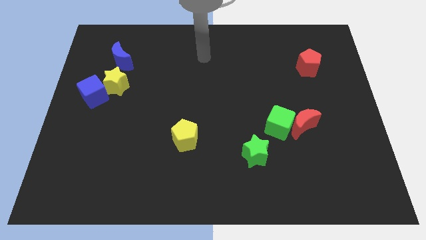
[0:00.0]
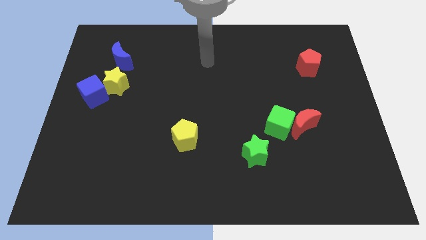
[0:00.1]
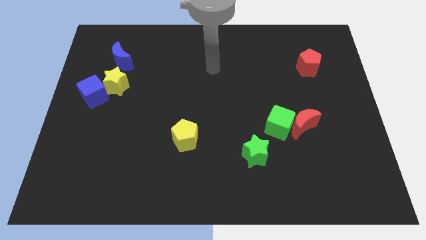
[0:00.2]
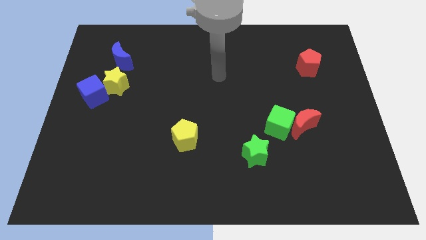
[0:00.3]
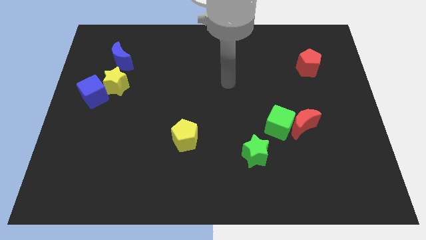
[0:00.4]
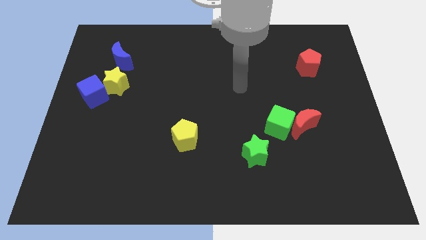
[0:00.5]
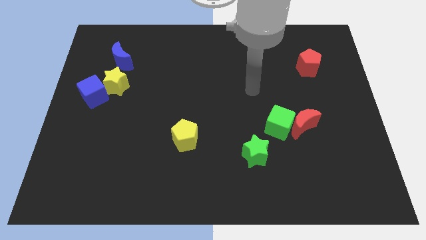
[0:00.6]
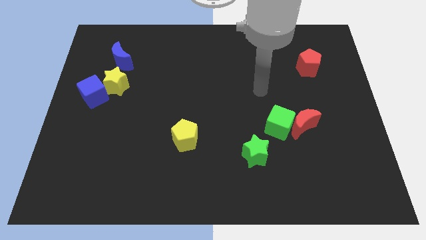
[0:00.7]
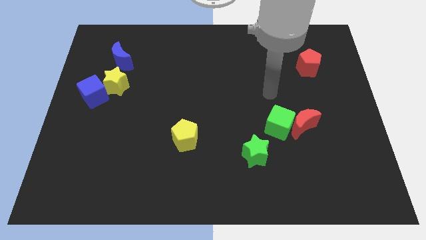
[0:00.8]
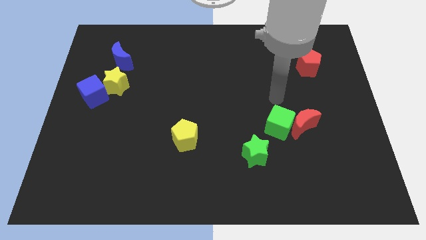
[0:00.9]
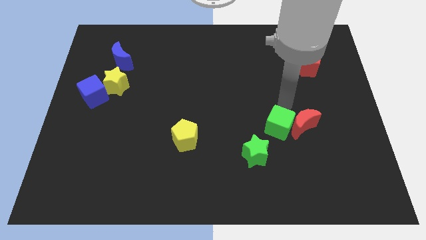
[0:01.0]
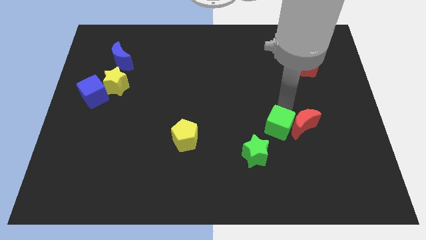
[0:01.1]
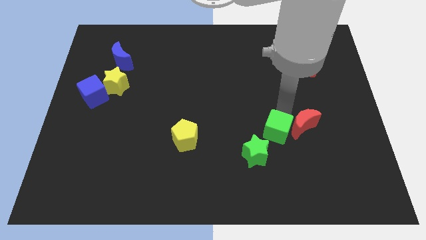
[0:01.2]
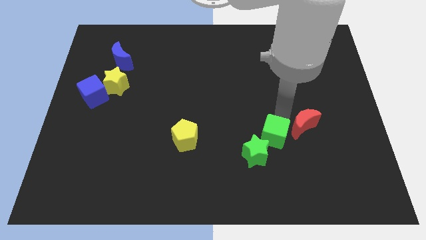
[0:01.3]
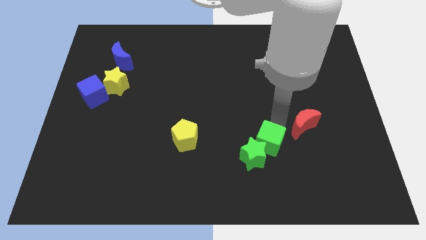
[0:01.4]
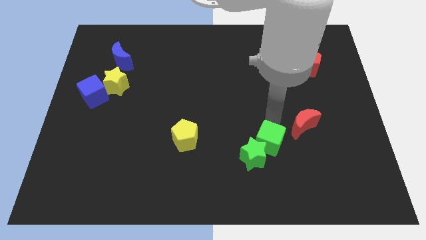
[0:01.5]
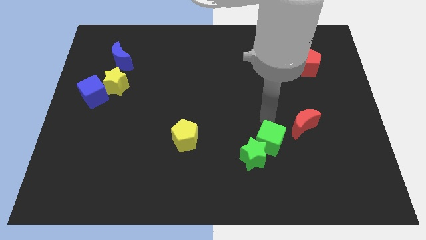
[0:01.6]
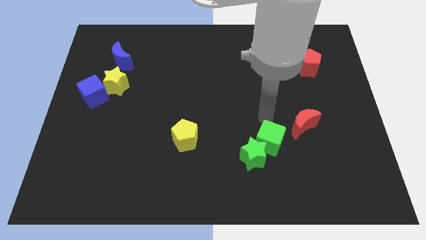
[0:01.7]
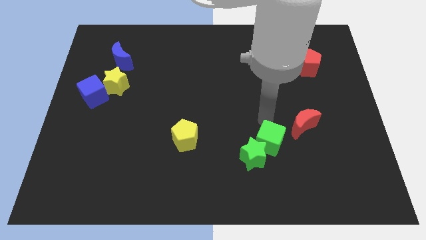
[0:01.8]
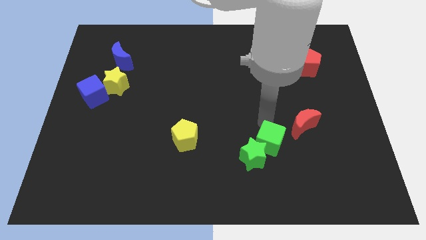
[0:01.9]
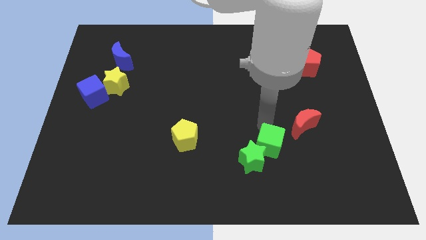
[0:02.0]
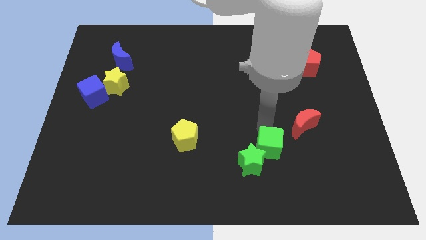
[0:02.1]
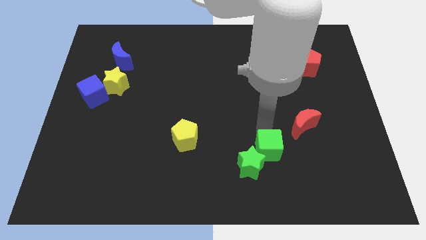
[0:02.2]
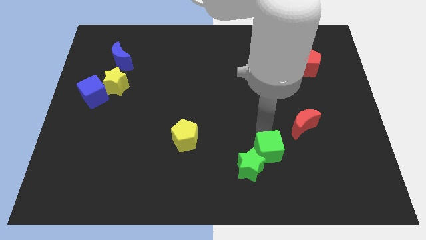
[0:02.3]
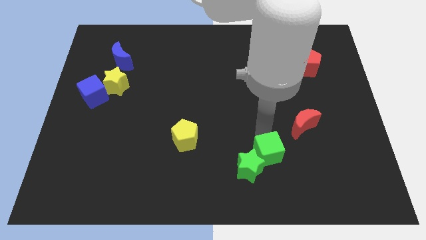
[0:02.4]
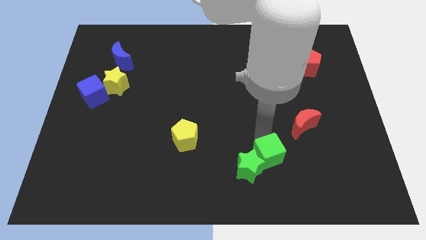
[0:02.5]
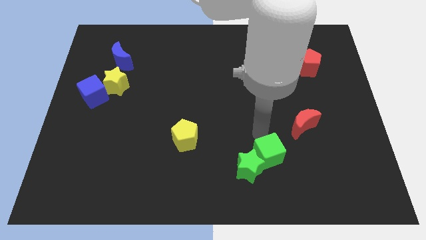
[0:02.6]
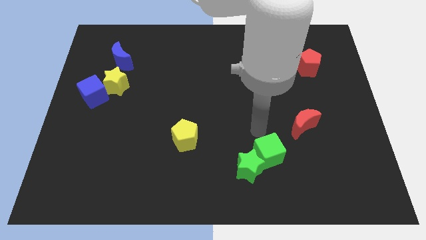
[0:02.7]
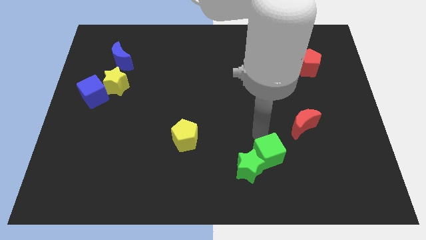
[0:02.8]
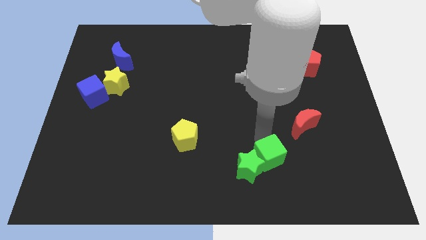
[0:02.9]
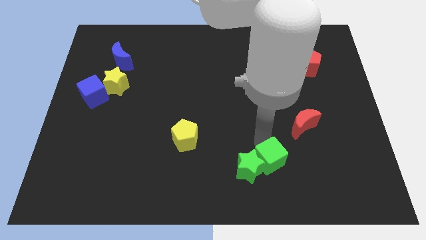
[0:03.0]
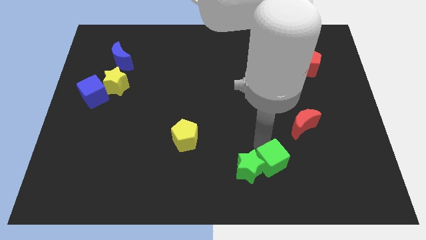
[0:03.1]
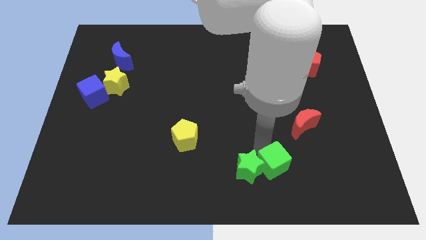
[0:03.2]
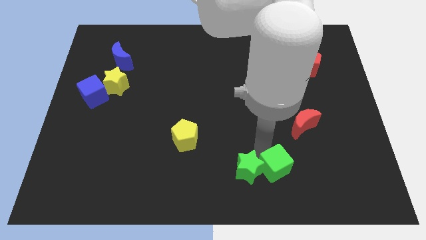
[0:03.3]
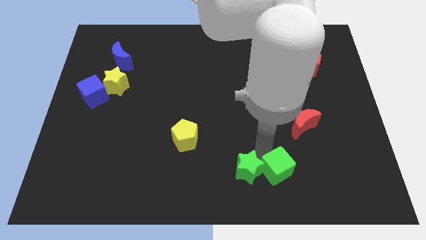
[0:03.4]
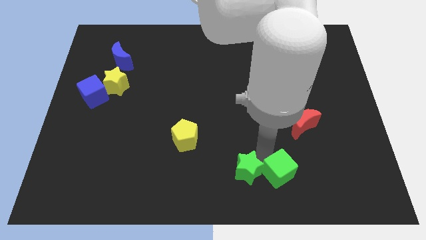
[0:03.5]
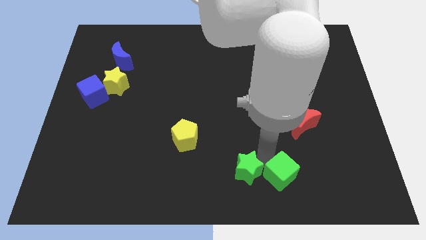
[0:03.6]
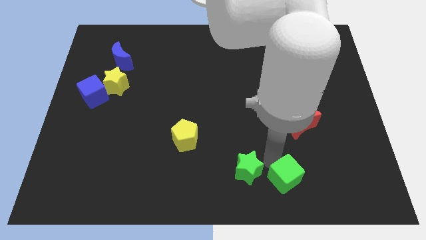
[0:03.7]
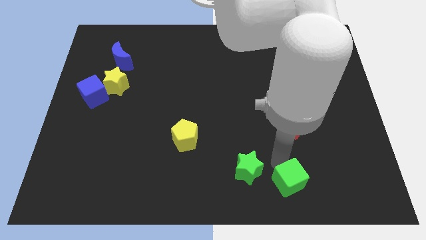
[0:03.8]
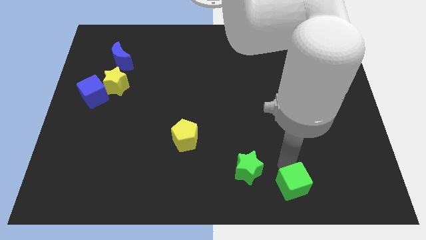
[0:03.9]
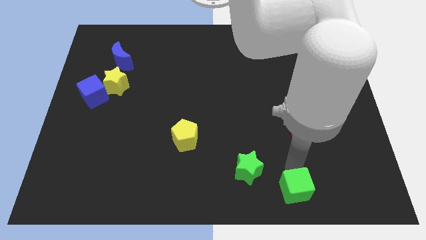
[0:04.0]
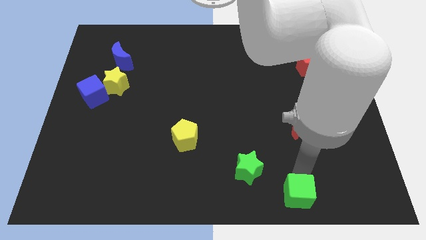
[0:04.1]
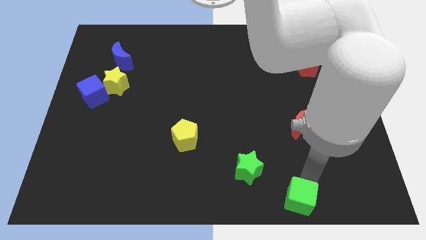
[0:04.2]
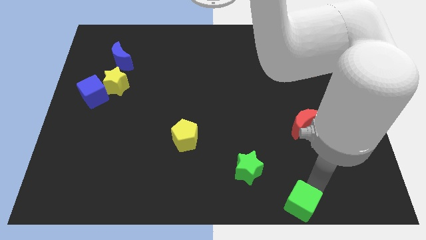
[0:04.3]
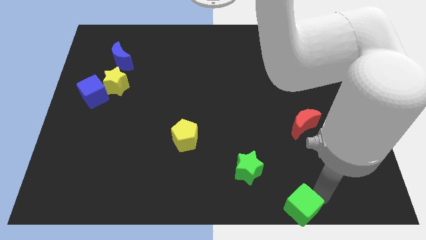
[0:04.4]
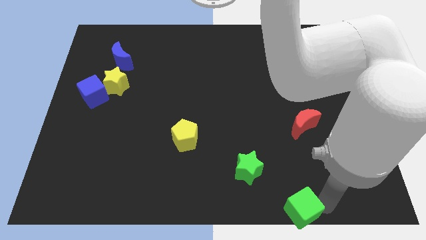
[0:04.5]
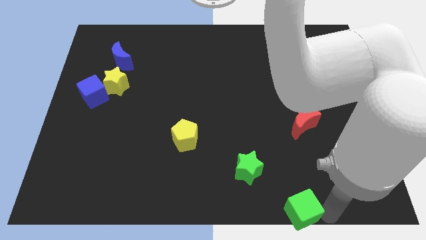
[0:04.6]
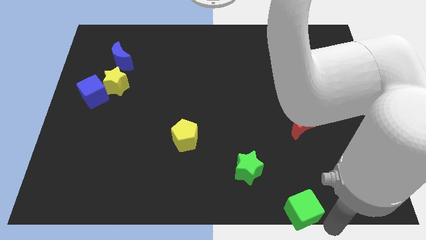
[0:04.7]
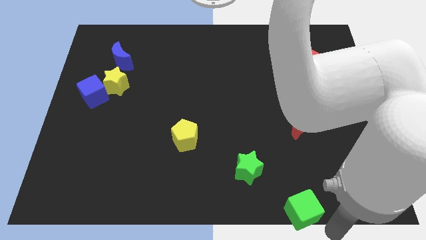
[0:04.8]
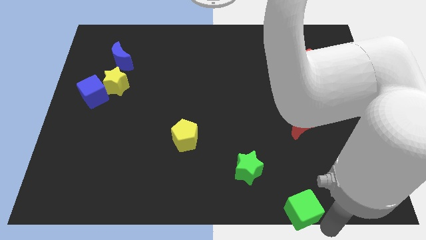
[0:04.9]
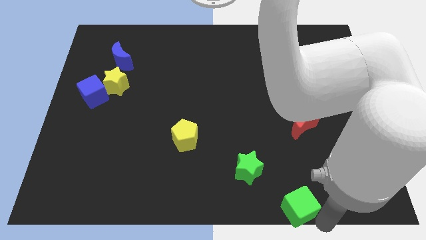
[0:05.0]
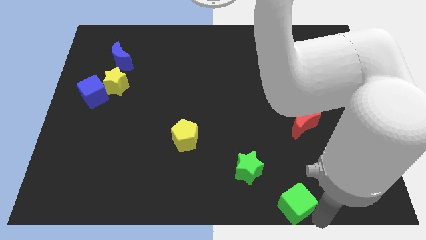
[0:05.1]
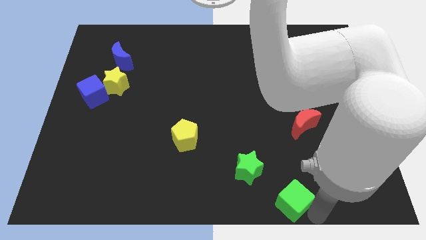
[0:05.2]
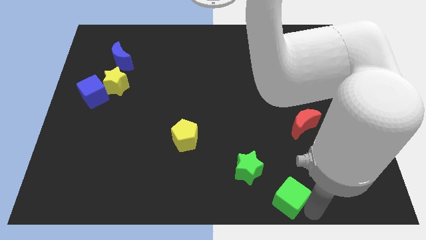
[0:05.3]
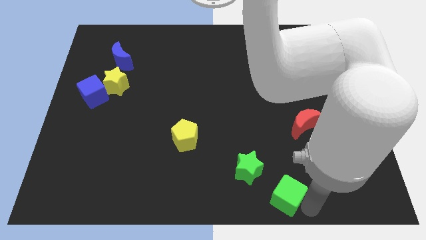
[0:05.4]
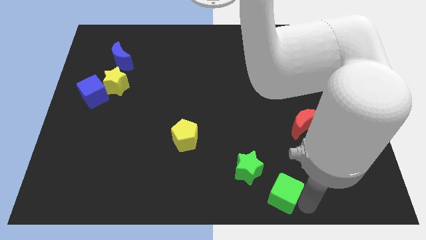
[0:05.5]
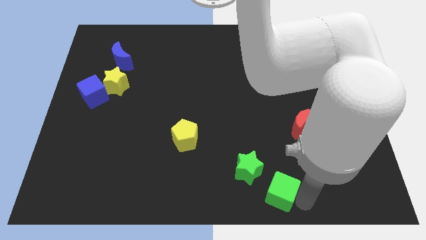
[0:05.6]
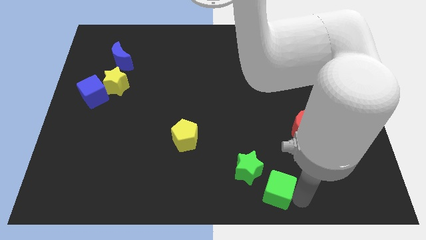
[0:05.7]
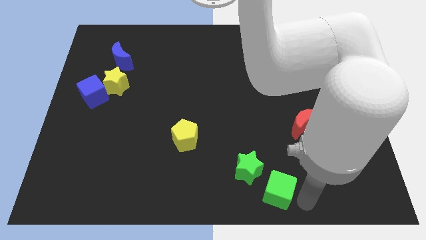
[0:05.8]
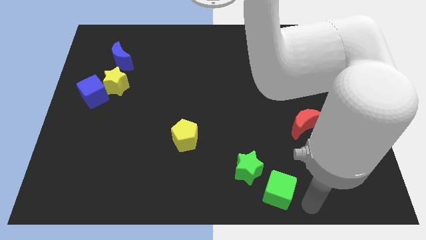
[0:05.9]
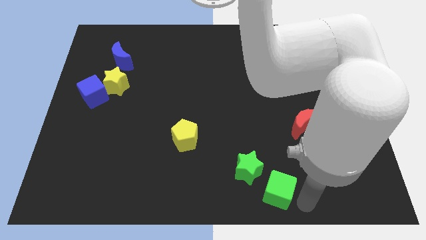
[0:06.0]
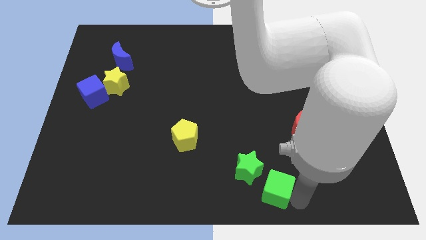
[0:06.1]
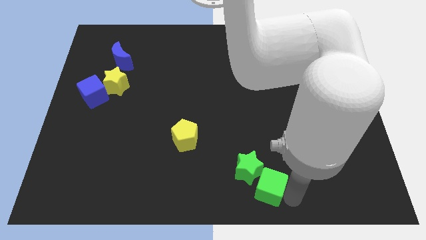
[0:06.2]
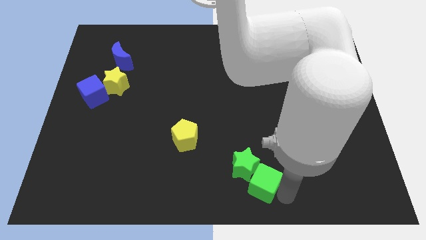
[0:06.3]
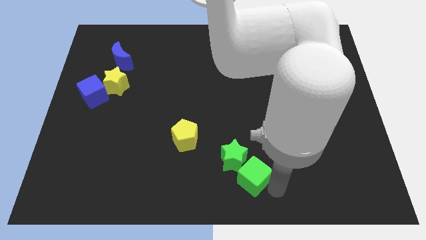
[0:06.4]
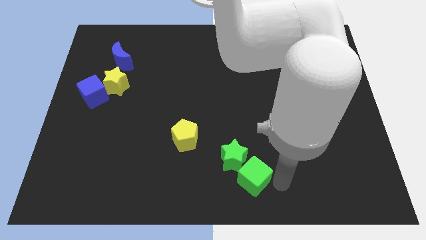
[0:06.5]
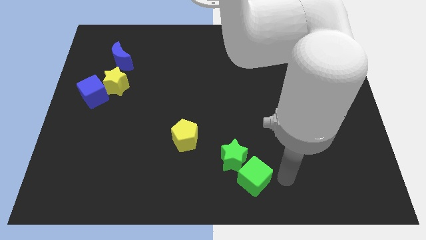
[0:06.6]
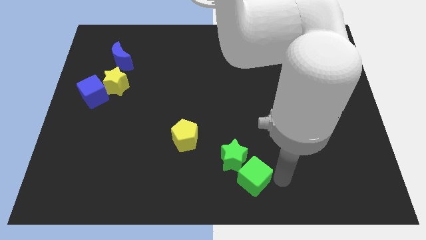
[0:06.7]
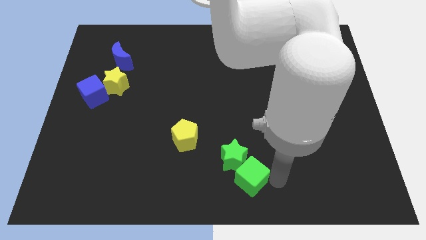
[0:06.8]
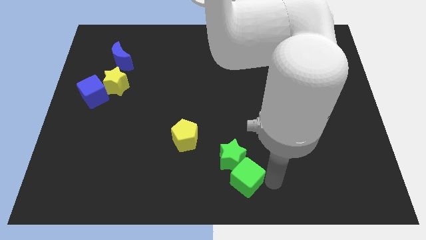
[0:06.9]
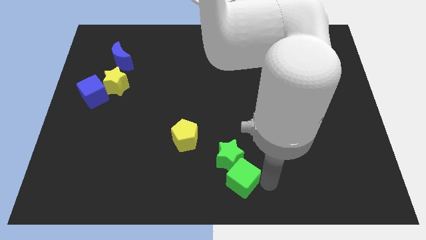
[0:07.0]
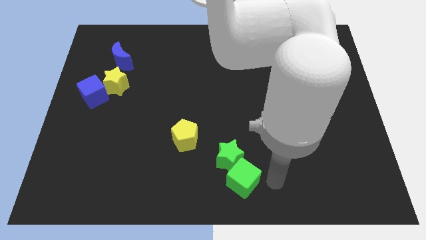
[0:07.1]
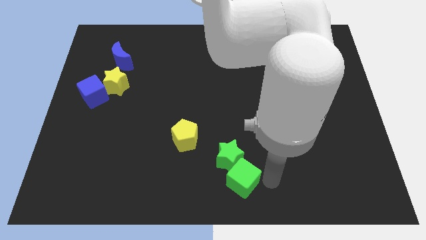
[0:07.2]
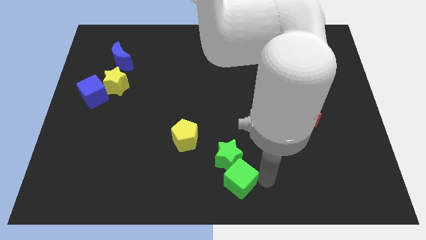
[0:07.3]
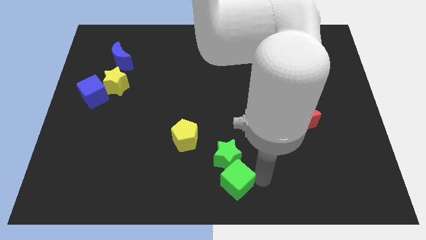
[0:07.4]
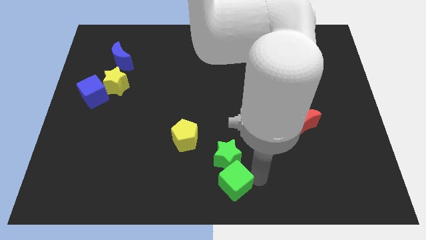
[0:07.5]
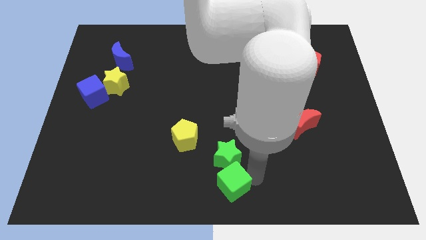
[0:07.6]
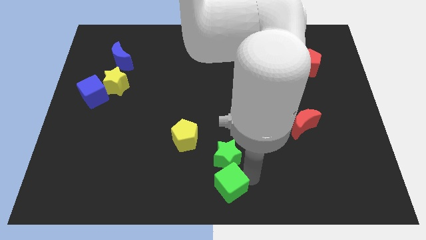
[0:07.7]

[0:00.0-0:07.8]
push the green cube to the bottom left side of the green star

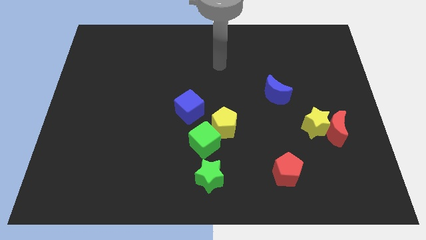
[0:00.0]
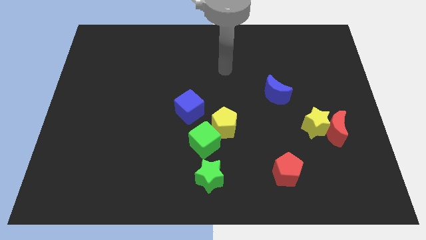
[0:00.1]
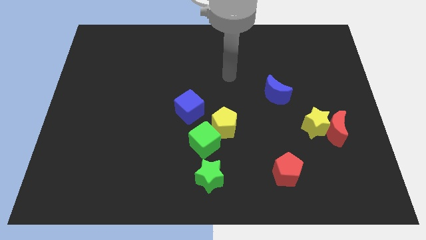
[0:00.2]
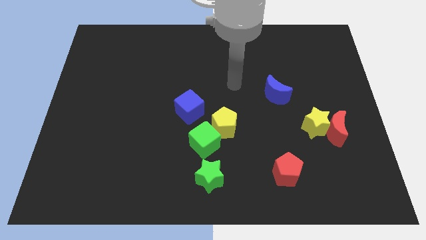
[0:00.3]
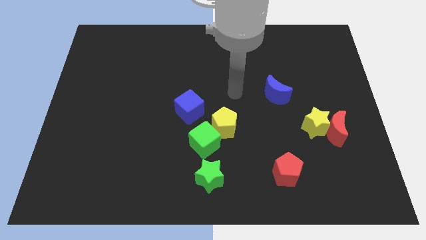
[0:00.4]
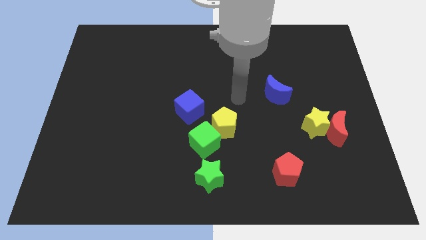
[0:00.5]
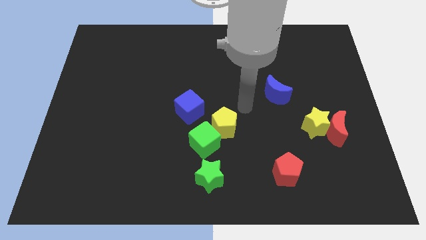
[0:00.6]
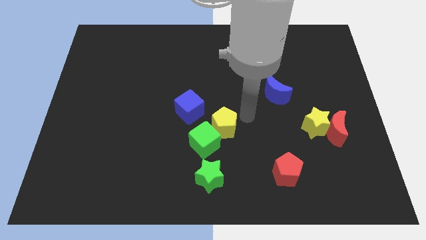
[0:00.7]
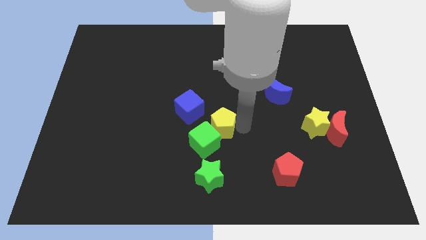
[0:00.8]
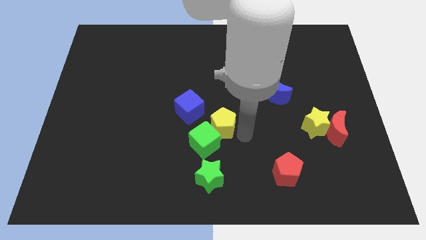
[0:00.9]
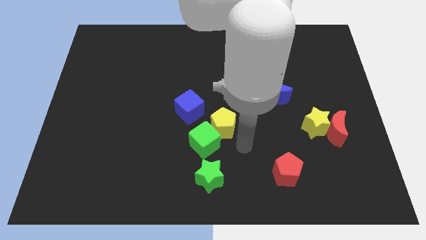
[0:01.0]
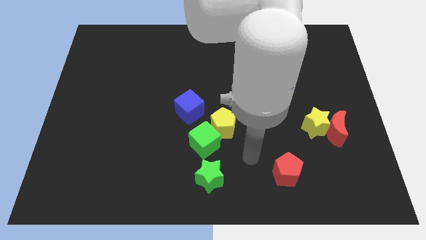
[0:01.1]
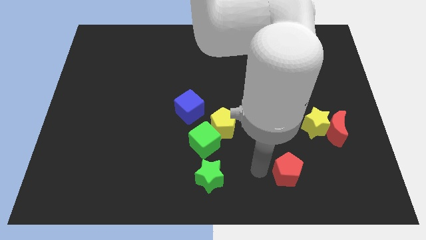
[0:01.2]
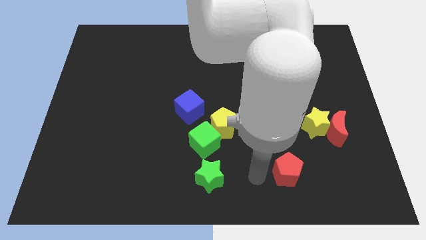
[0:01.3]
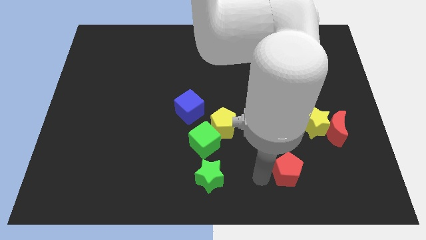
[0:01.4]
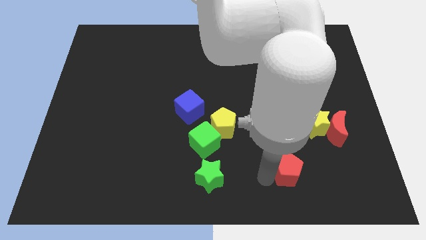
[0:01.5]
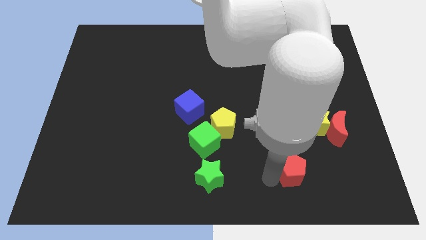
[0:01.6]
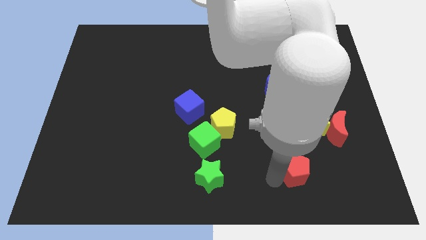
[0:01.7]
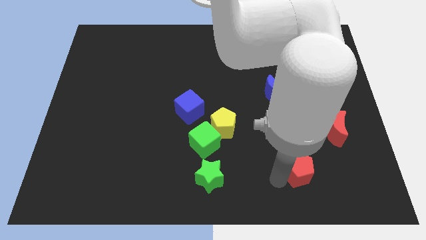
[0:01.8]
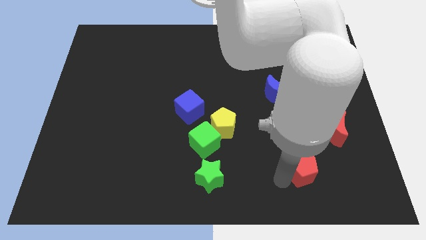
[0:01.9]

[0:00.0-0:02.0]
push the red pentagon to the bottom side of the yellow star
